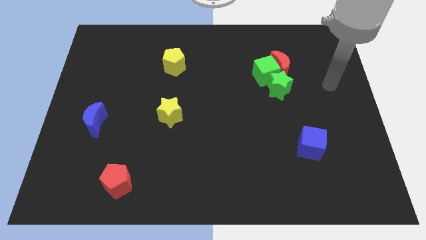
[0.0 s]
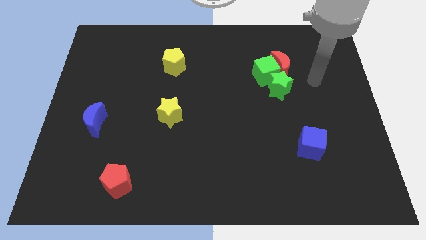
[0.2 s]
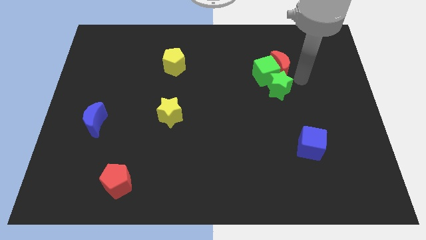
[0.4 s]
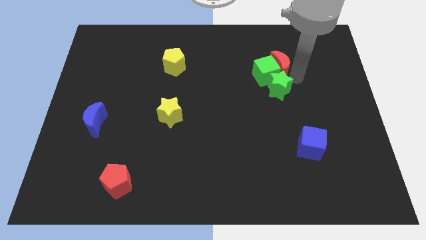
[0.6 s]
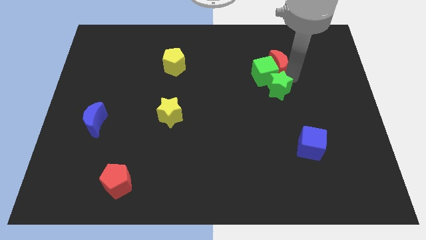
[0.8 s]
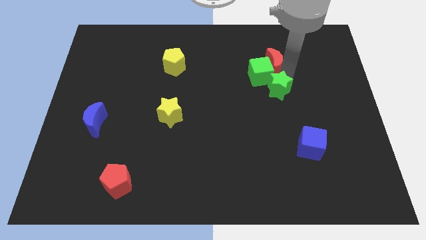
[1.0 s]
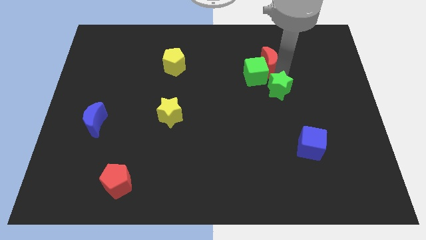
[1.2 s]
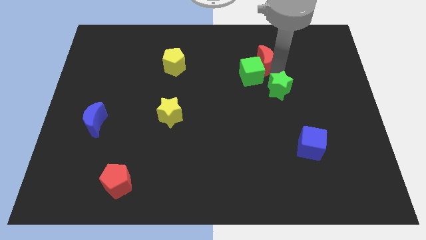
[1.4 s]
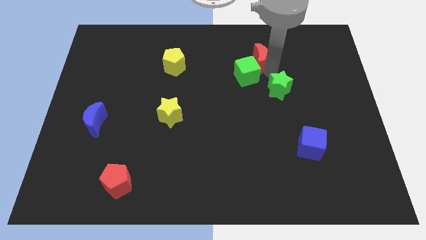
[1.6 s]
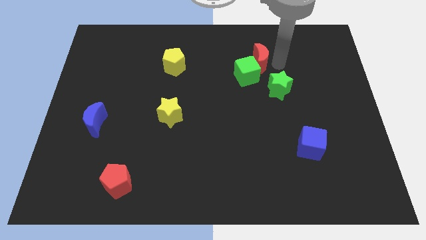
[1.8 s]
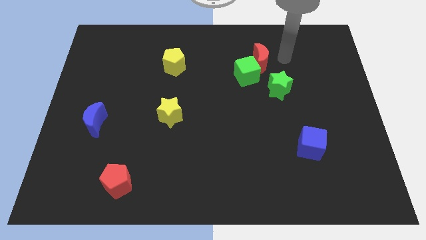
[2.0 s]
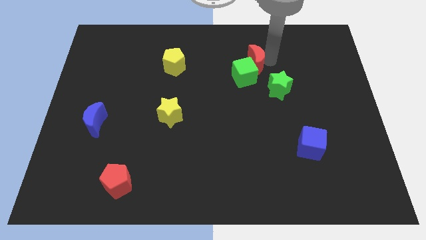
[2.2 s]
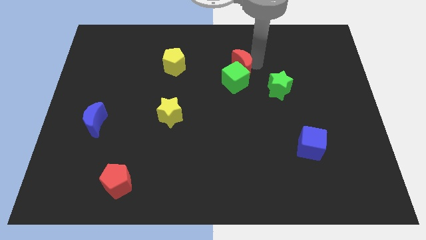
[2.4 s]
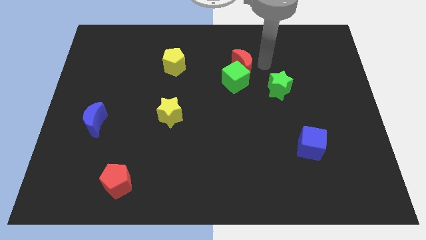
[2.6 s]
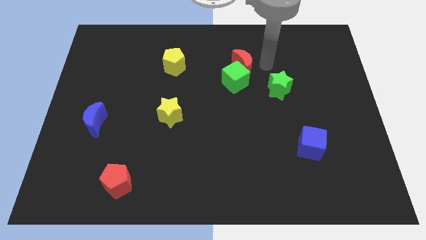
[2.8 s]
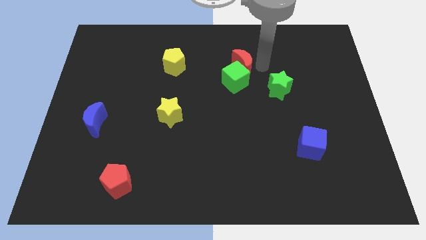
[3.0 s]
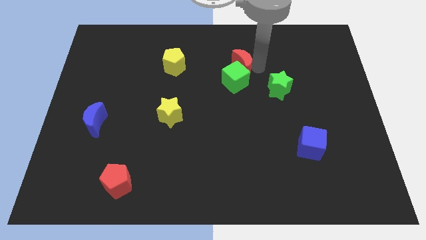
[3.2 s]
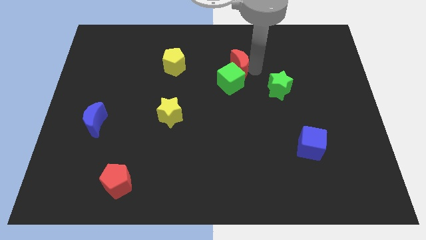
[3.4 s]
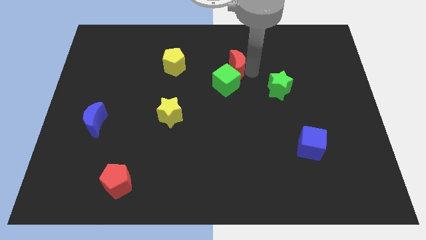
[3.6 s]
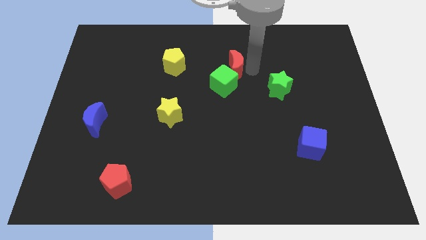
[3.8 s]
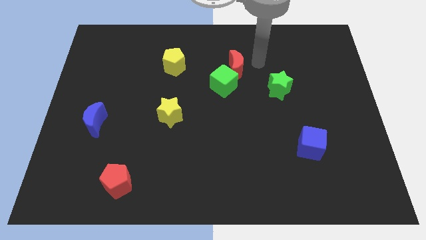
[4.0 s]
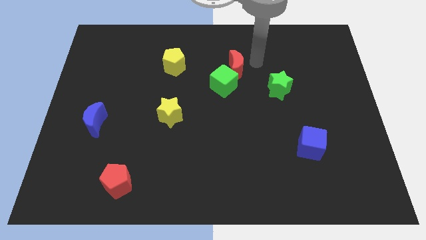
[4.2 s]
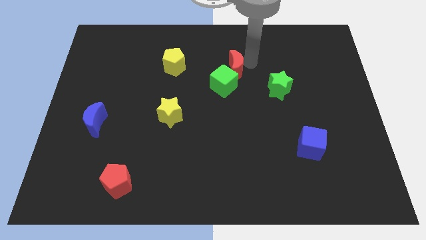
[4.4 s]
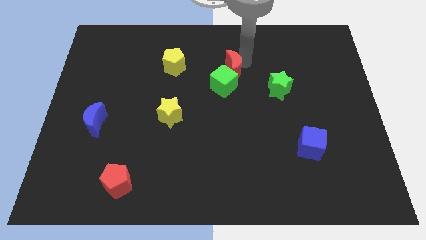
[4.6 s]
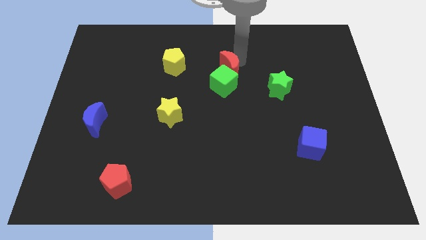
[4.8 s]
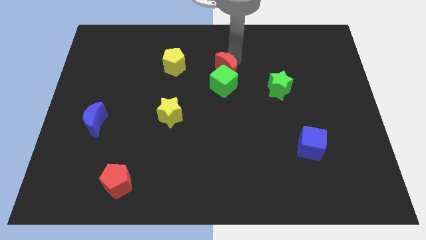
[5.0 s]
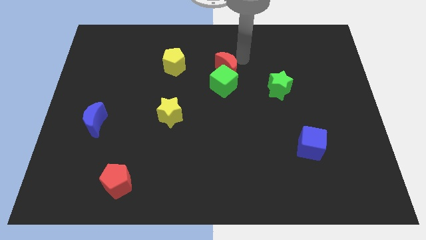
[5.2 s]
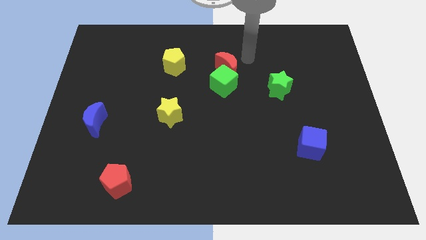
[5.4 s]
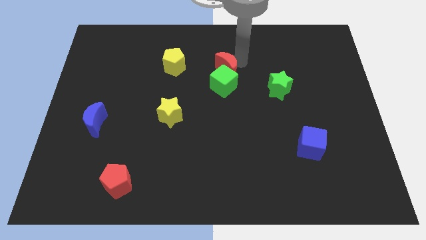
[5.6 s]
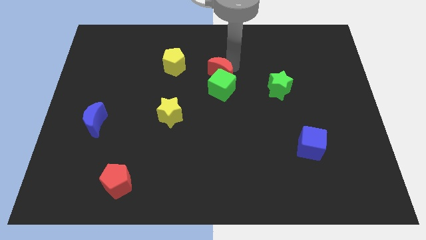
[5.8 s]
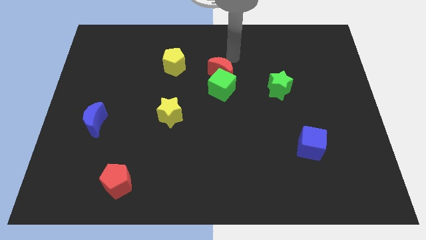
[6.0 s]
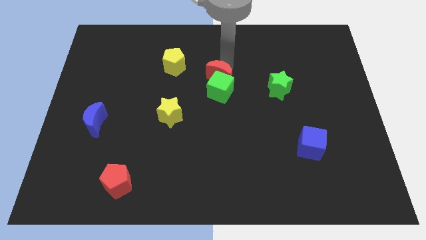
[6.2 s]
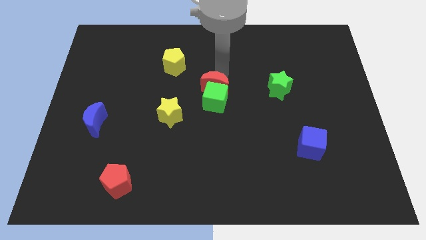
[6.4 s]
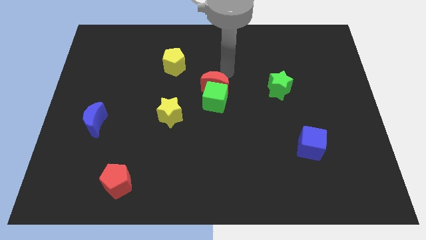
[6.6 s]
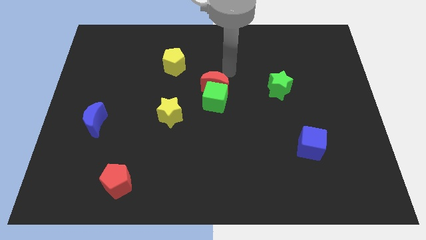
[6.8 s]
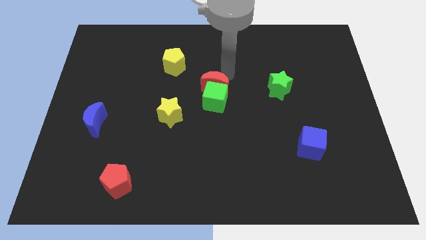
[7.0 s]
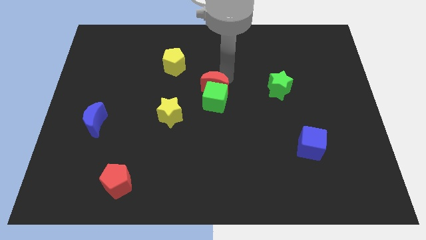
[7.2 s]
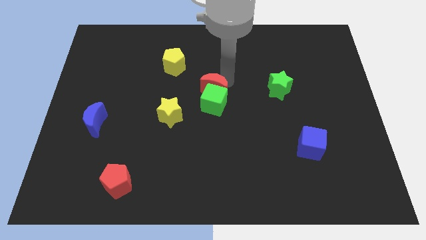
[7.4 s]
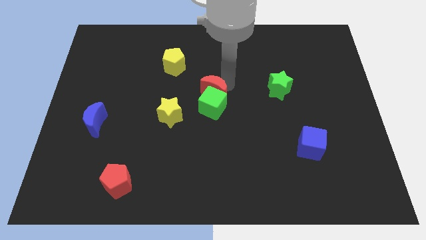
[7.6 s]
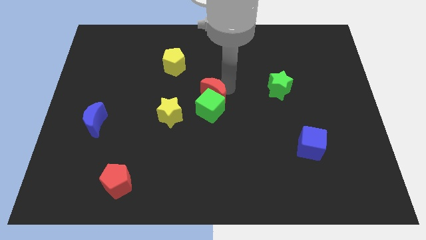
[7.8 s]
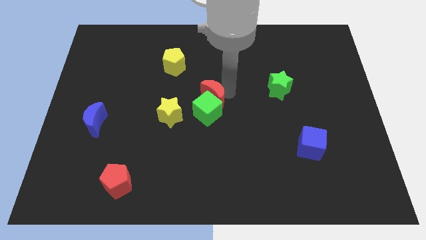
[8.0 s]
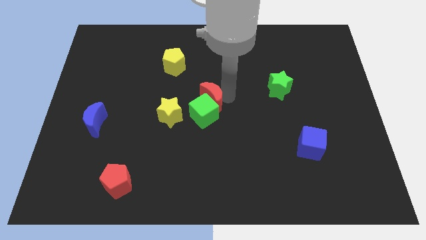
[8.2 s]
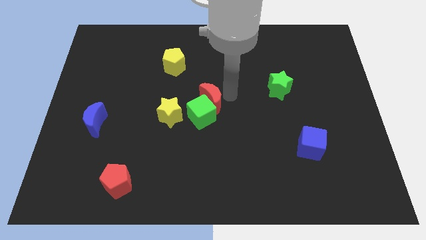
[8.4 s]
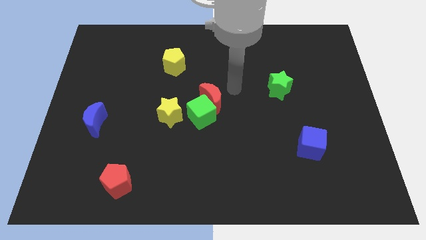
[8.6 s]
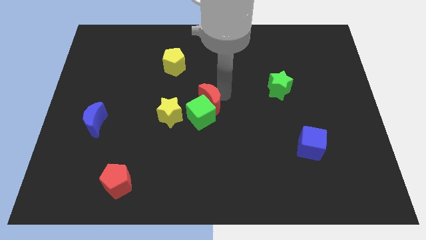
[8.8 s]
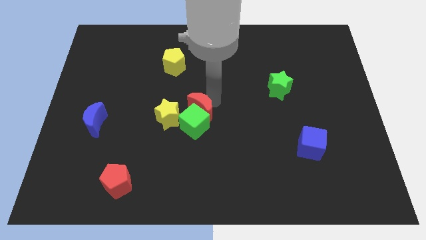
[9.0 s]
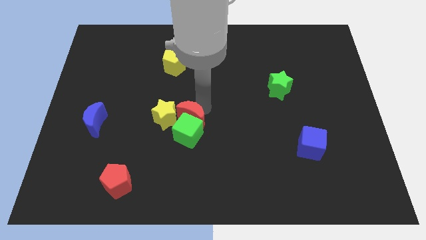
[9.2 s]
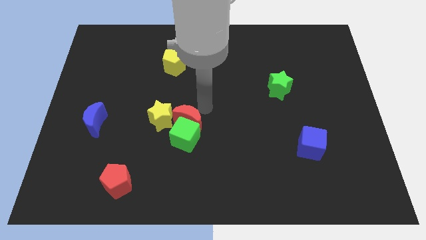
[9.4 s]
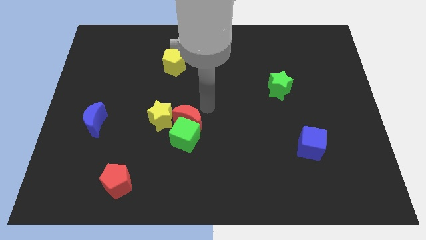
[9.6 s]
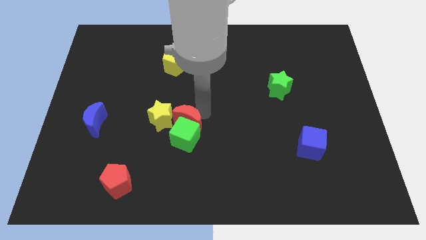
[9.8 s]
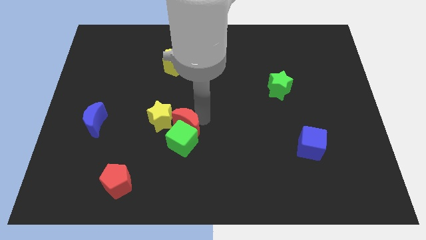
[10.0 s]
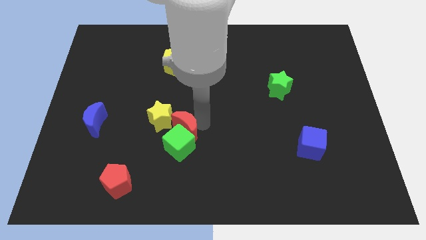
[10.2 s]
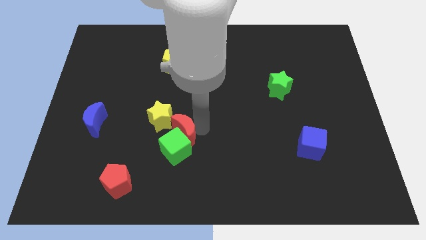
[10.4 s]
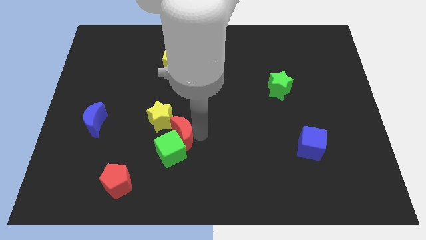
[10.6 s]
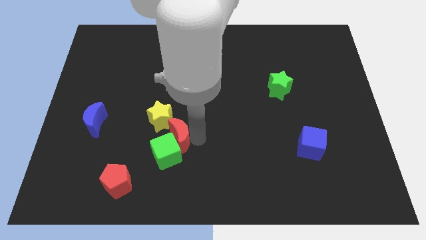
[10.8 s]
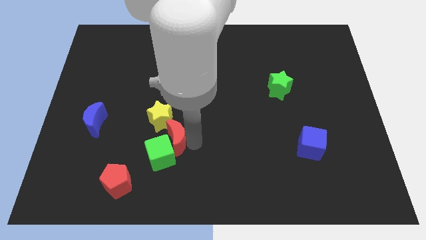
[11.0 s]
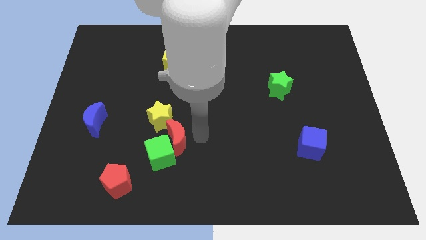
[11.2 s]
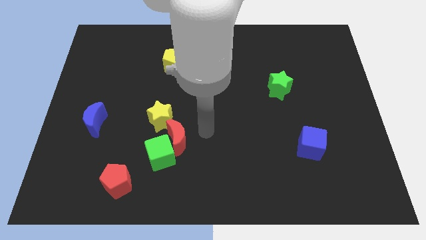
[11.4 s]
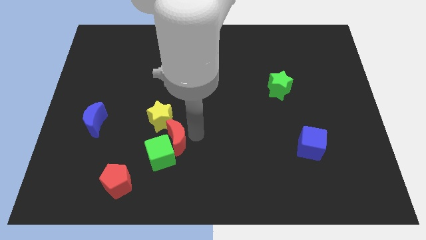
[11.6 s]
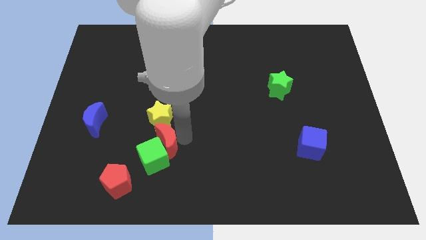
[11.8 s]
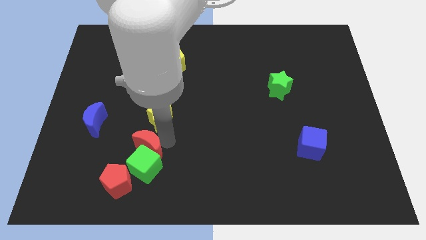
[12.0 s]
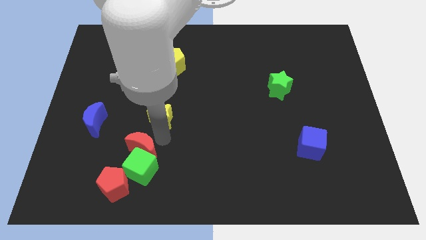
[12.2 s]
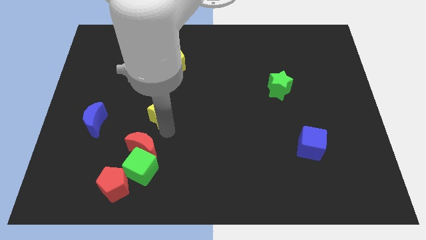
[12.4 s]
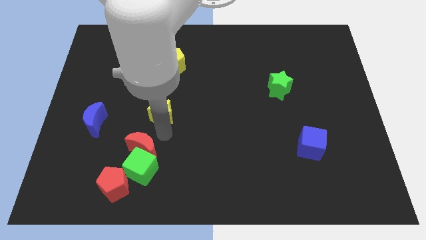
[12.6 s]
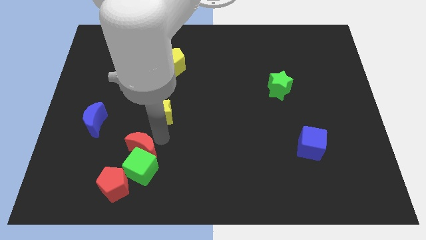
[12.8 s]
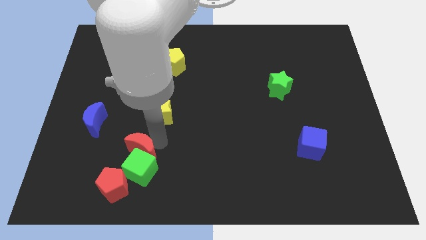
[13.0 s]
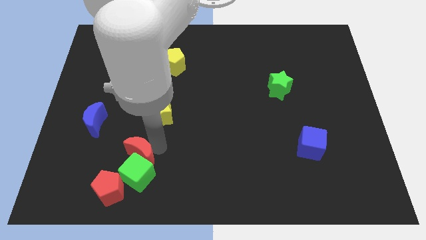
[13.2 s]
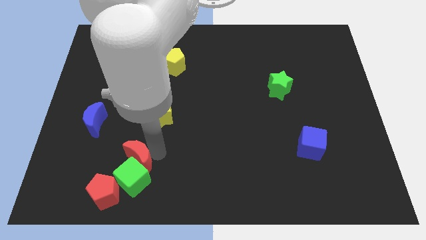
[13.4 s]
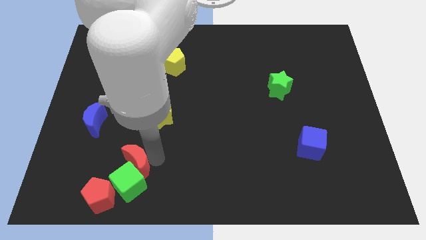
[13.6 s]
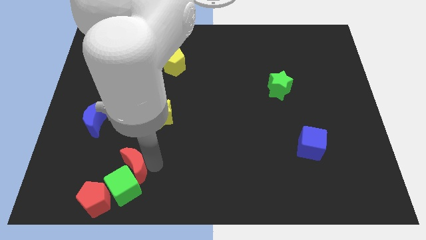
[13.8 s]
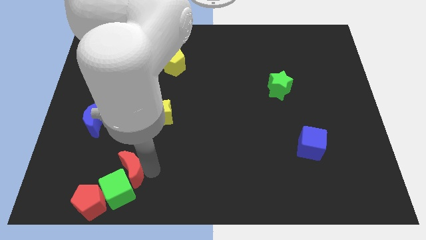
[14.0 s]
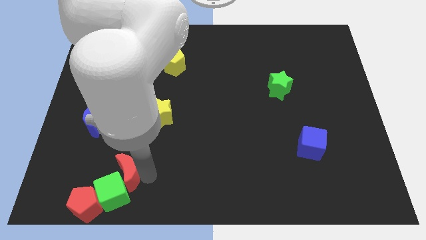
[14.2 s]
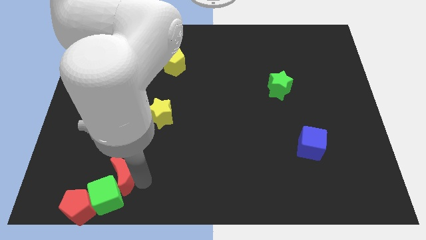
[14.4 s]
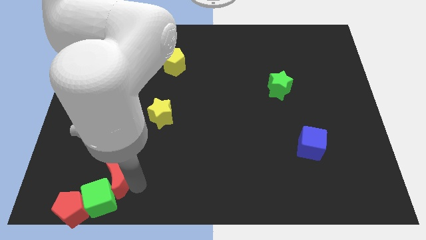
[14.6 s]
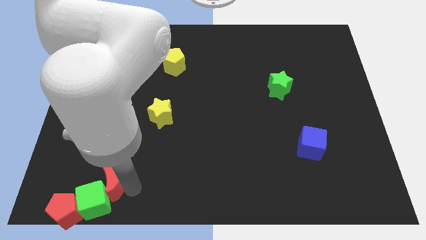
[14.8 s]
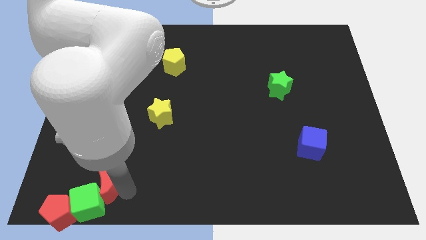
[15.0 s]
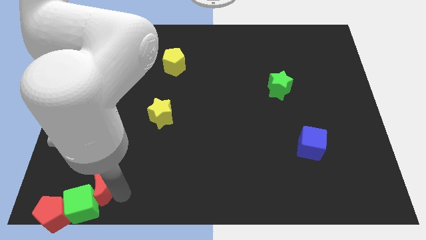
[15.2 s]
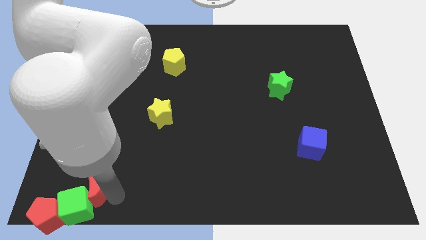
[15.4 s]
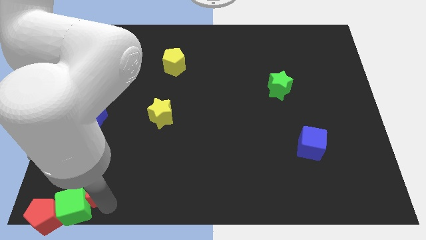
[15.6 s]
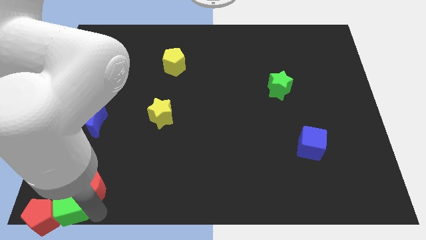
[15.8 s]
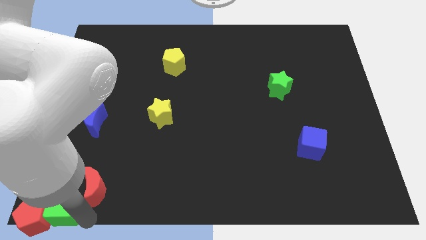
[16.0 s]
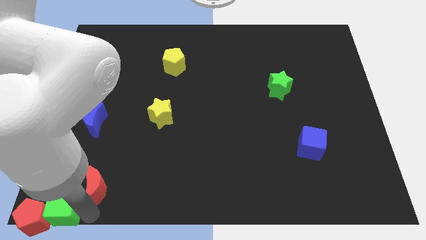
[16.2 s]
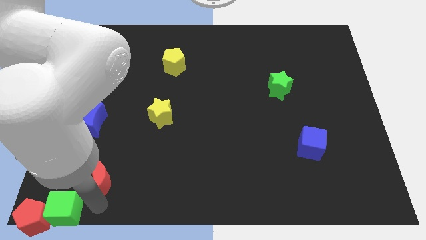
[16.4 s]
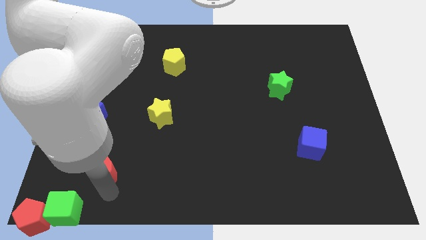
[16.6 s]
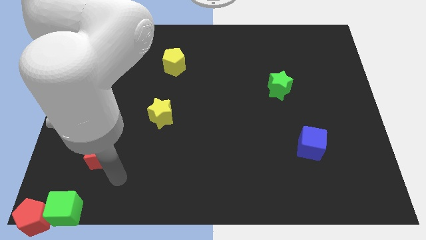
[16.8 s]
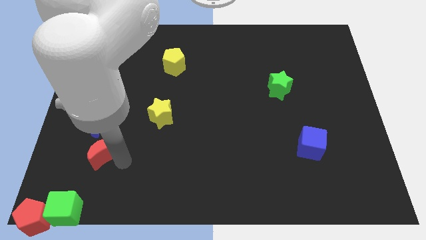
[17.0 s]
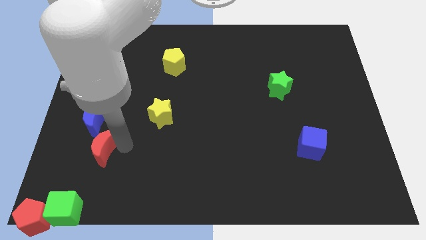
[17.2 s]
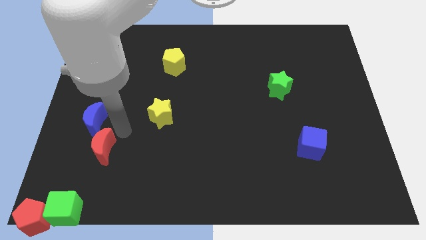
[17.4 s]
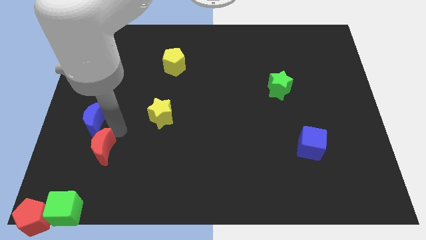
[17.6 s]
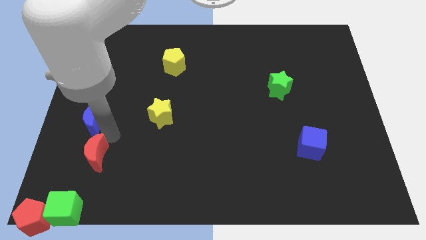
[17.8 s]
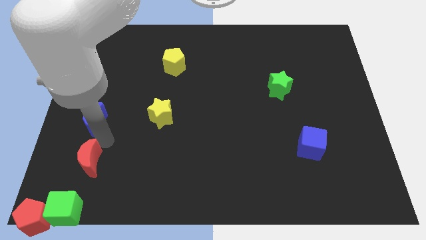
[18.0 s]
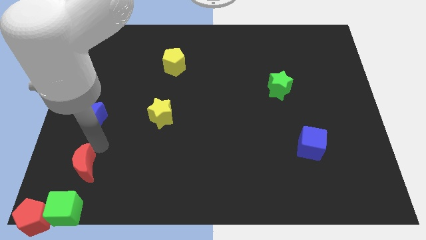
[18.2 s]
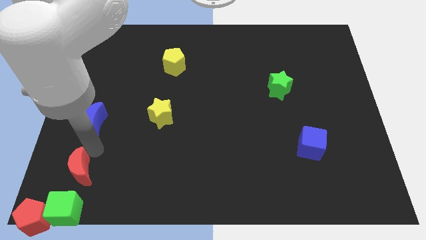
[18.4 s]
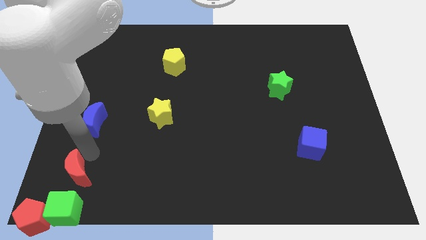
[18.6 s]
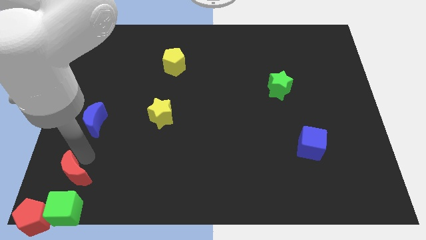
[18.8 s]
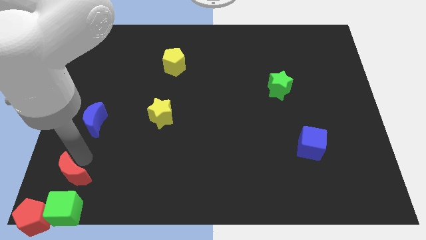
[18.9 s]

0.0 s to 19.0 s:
slide the red moon to the bottom left of the board
